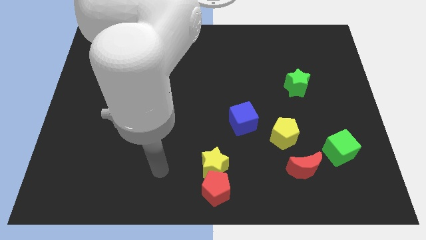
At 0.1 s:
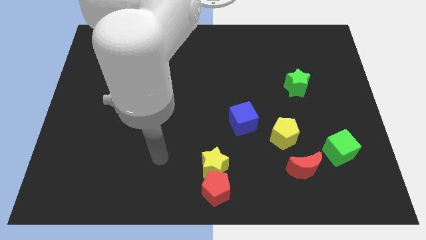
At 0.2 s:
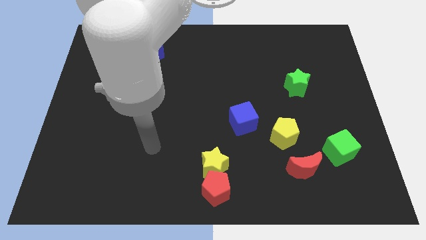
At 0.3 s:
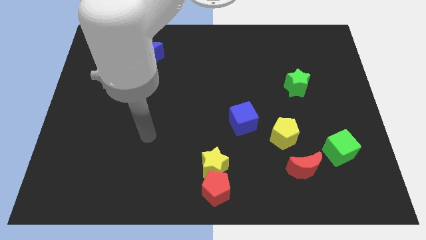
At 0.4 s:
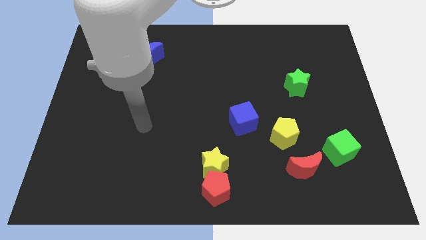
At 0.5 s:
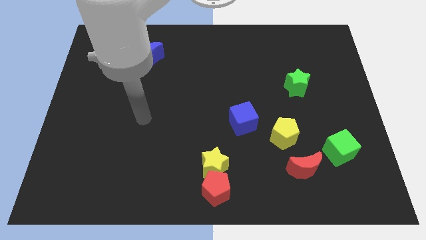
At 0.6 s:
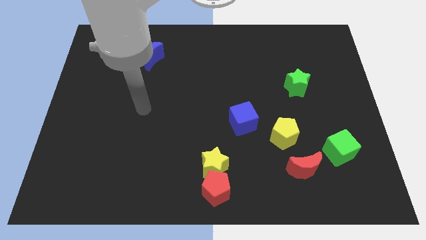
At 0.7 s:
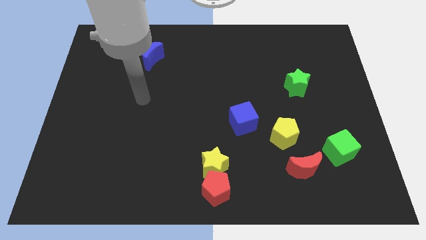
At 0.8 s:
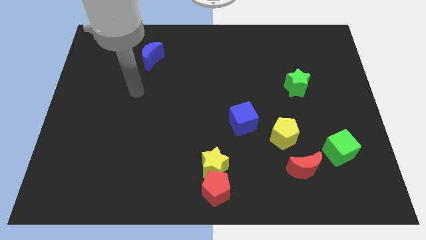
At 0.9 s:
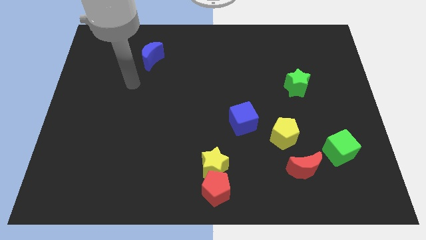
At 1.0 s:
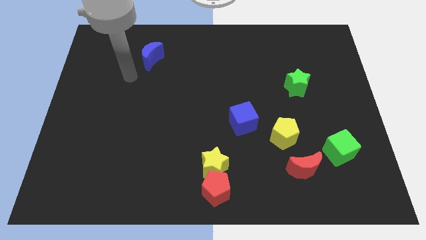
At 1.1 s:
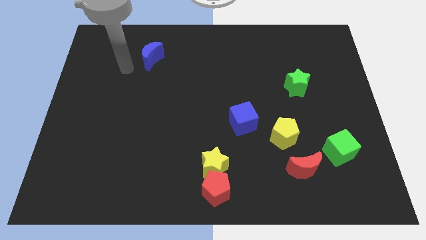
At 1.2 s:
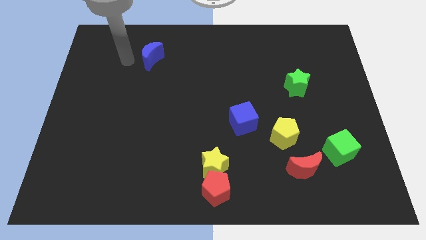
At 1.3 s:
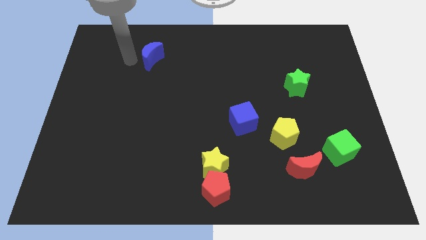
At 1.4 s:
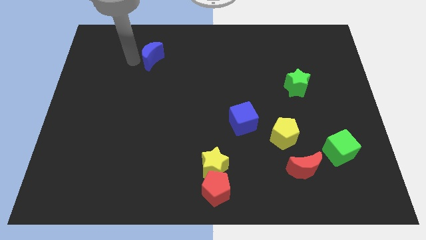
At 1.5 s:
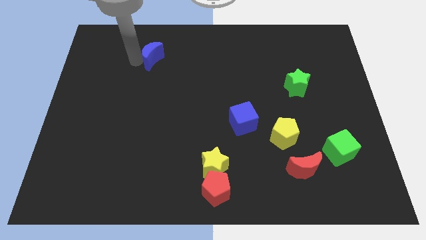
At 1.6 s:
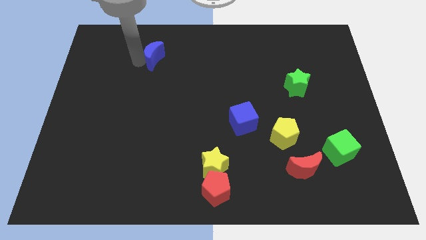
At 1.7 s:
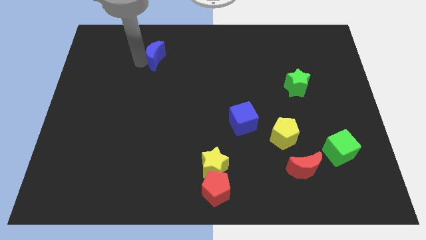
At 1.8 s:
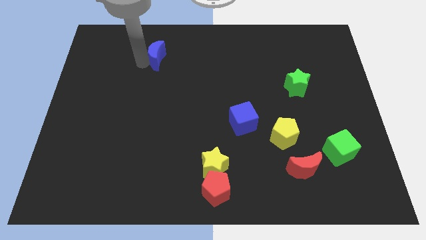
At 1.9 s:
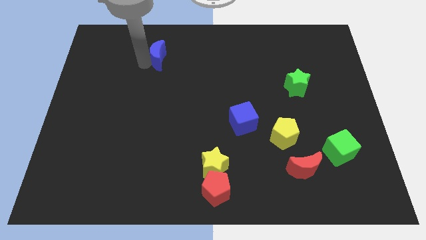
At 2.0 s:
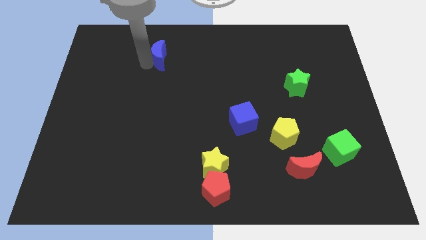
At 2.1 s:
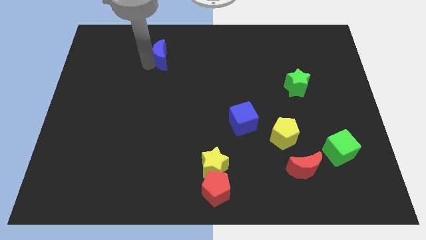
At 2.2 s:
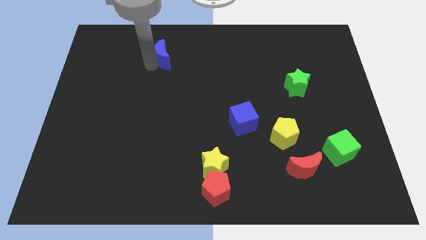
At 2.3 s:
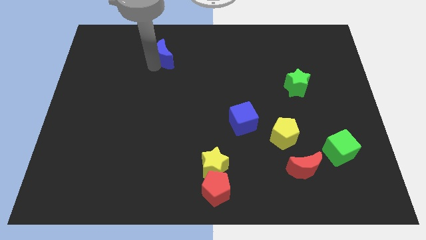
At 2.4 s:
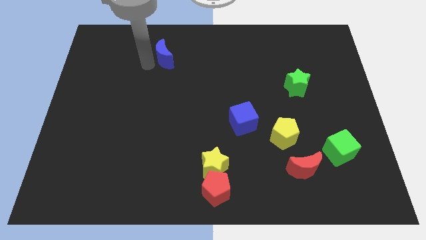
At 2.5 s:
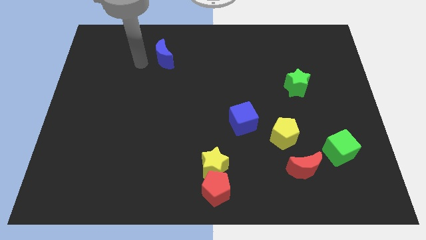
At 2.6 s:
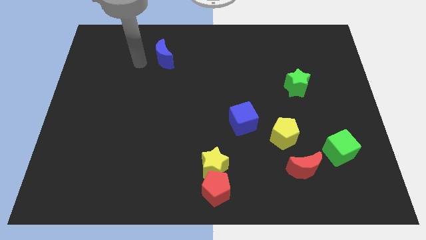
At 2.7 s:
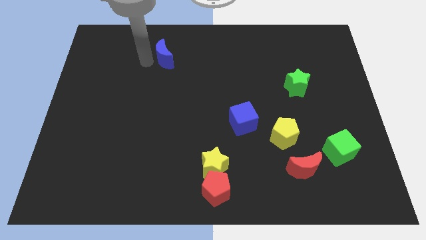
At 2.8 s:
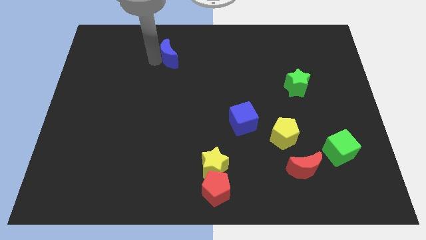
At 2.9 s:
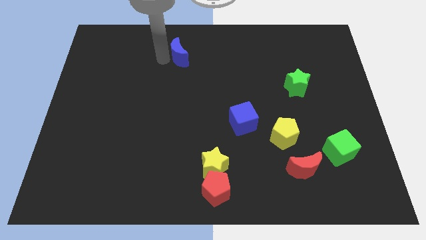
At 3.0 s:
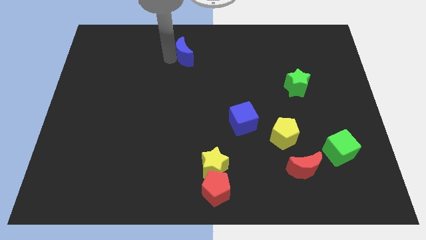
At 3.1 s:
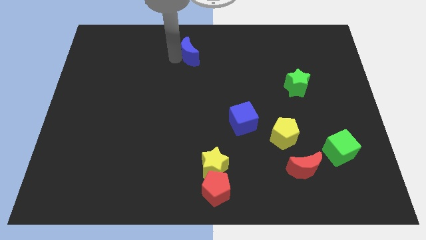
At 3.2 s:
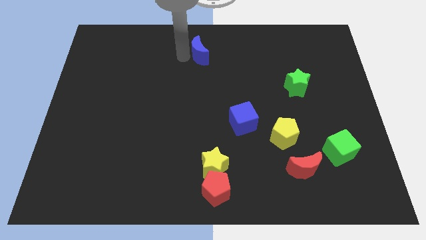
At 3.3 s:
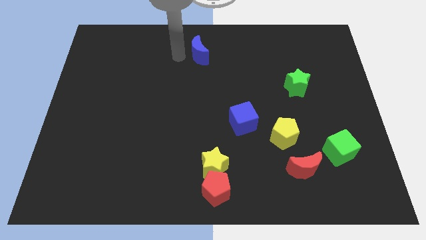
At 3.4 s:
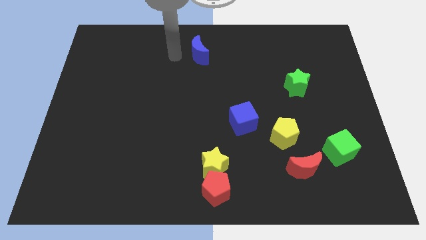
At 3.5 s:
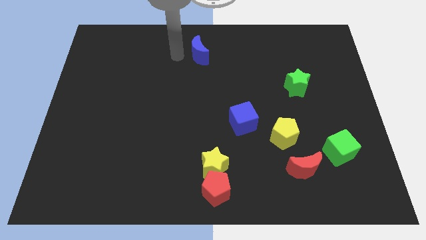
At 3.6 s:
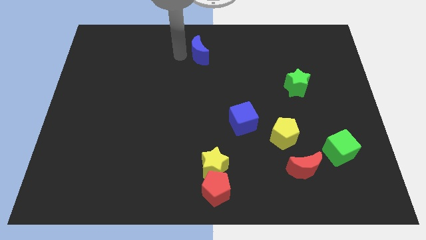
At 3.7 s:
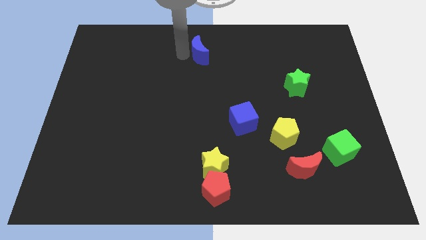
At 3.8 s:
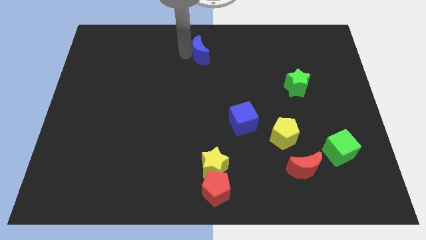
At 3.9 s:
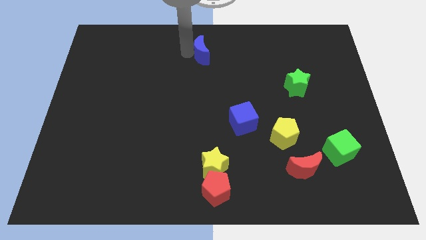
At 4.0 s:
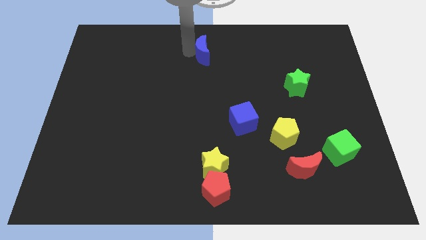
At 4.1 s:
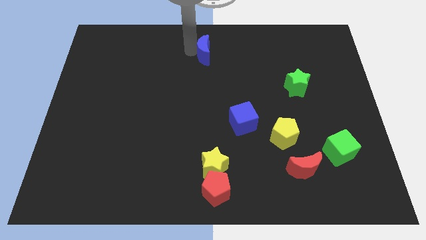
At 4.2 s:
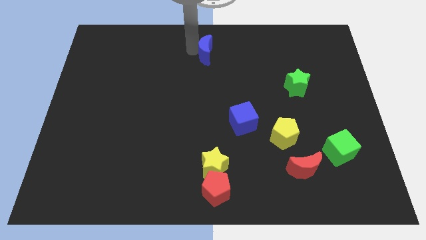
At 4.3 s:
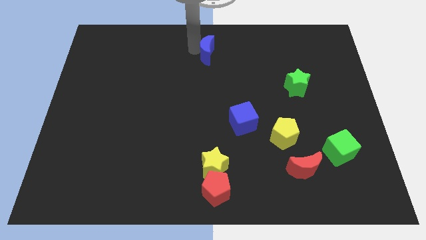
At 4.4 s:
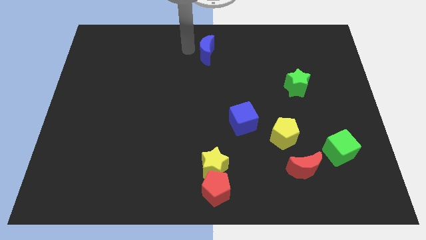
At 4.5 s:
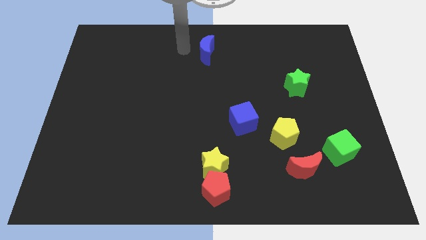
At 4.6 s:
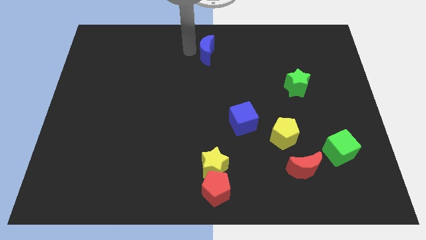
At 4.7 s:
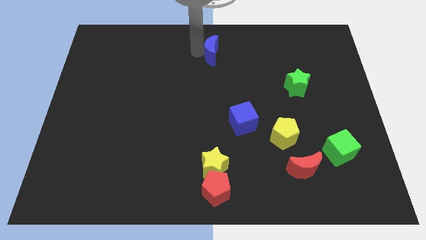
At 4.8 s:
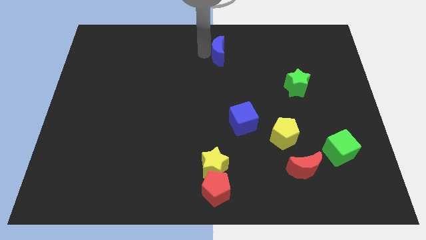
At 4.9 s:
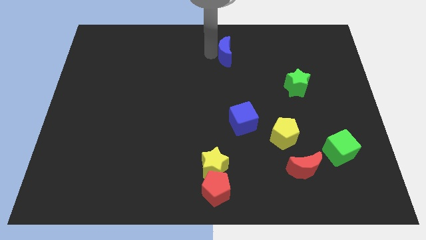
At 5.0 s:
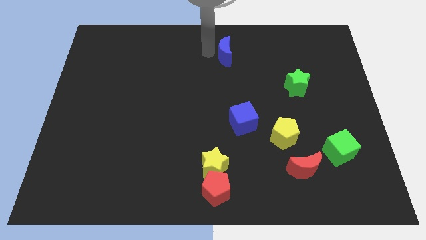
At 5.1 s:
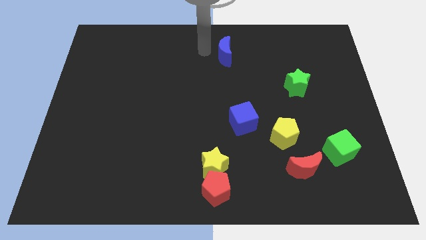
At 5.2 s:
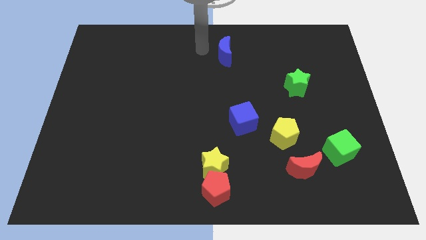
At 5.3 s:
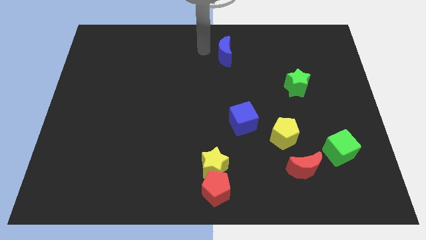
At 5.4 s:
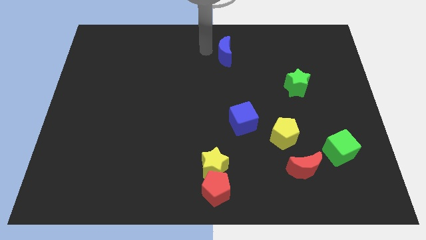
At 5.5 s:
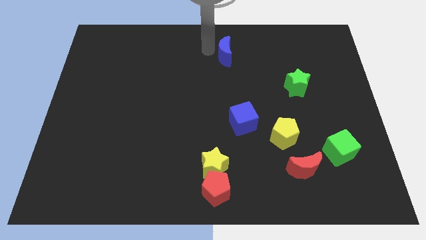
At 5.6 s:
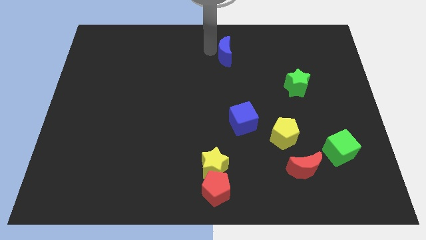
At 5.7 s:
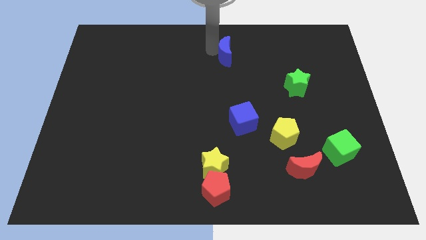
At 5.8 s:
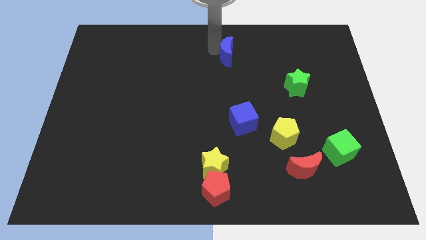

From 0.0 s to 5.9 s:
push the blue moon to the right

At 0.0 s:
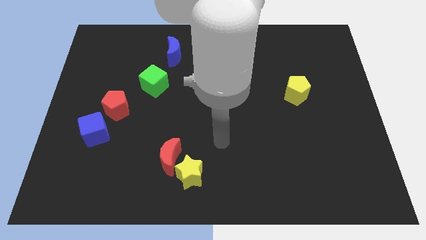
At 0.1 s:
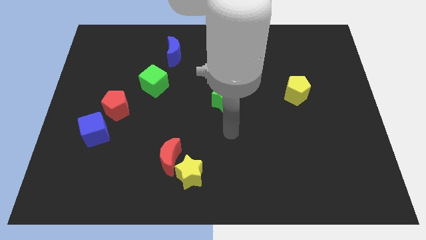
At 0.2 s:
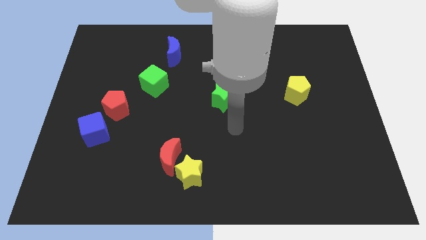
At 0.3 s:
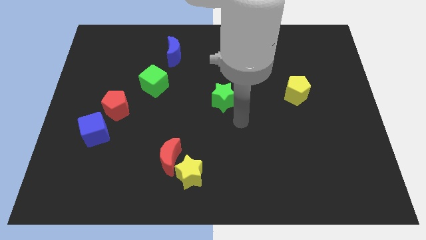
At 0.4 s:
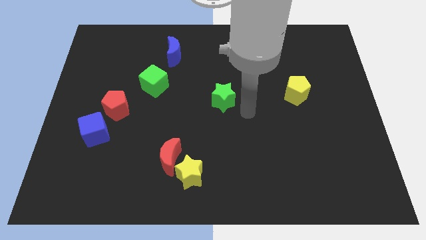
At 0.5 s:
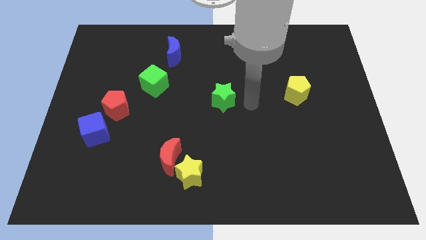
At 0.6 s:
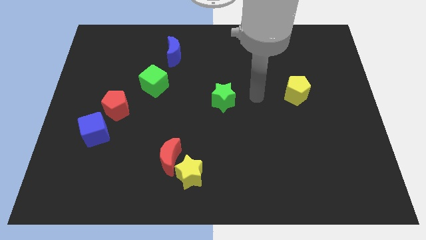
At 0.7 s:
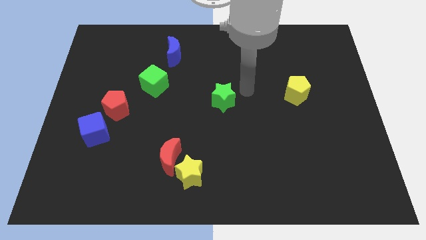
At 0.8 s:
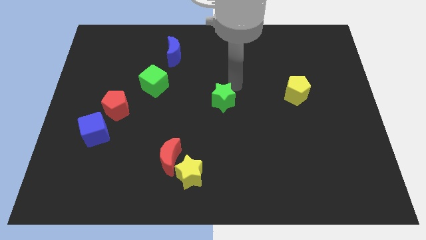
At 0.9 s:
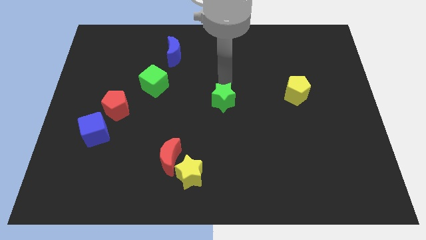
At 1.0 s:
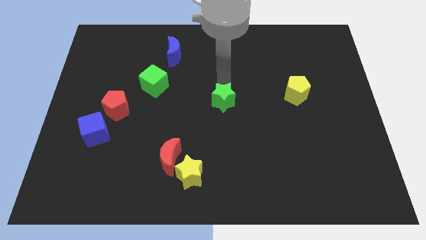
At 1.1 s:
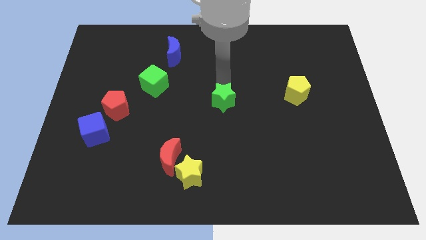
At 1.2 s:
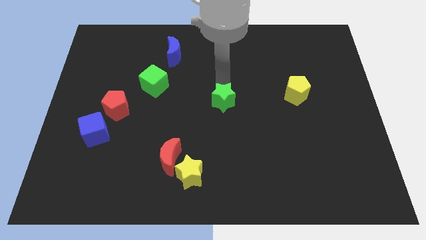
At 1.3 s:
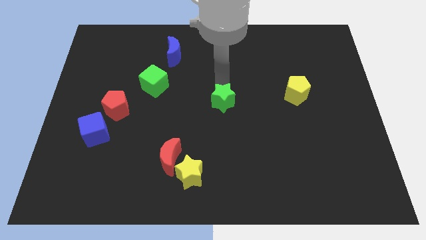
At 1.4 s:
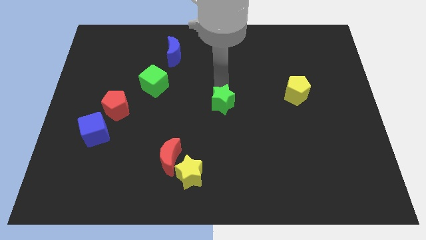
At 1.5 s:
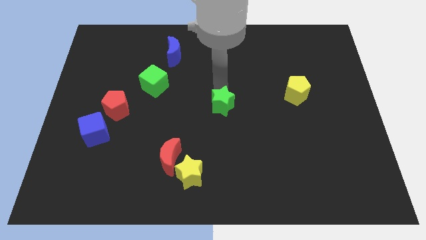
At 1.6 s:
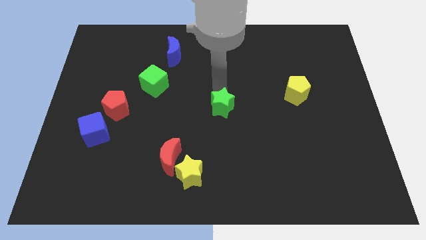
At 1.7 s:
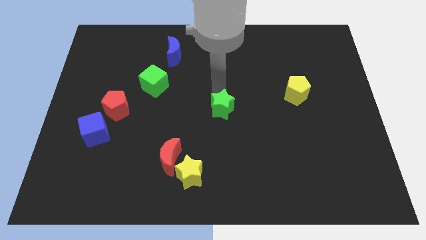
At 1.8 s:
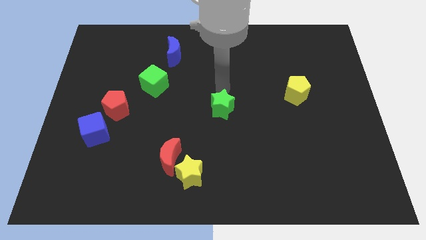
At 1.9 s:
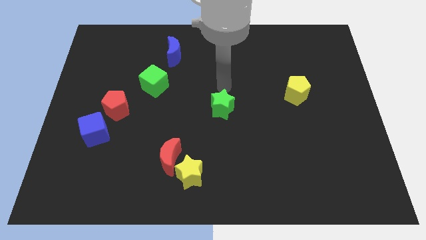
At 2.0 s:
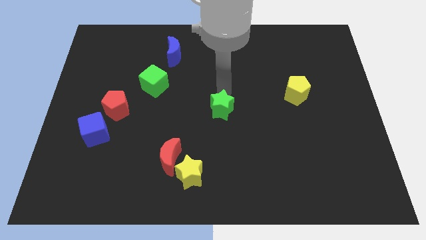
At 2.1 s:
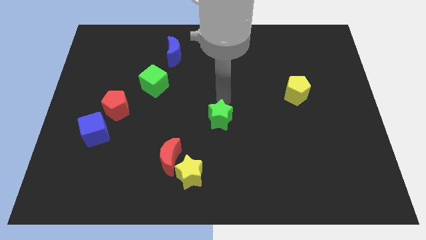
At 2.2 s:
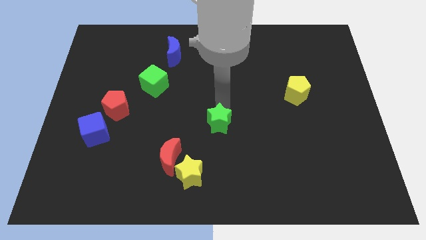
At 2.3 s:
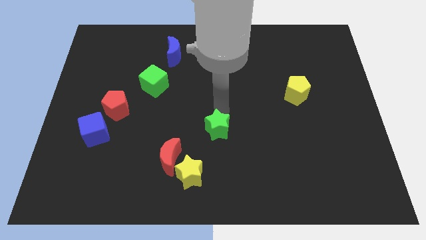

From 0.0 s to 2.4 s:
slightly move the green star down
